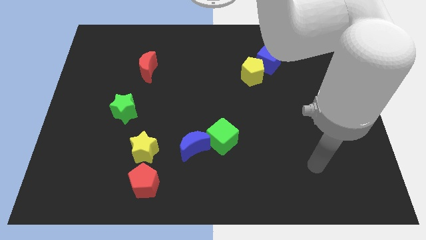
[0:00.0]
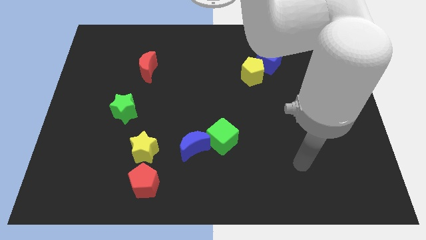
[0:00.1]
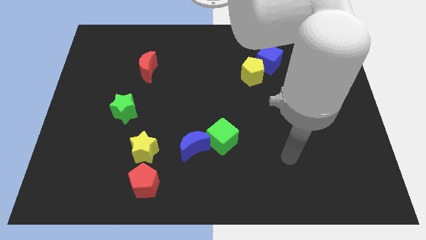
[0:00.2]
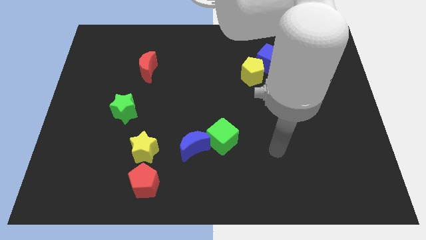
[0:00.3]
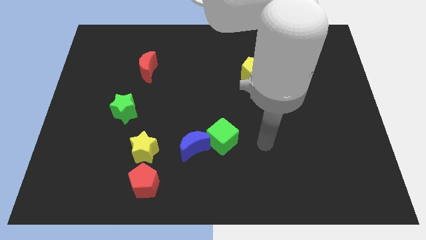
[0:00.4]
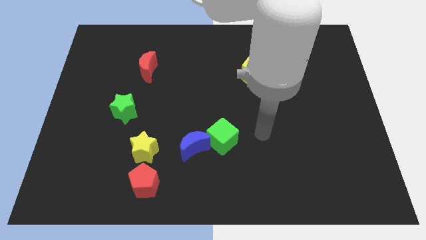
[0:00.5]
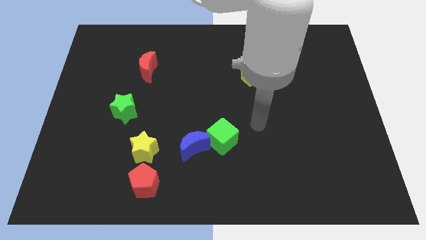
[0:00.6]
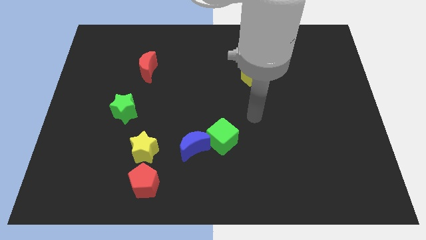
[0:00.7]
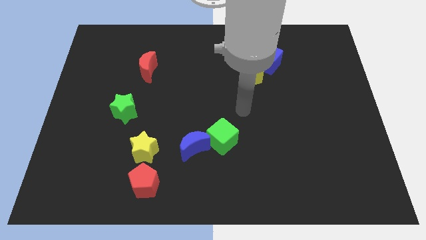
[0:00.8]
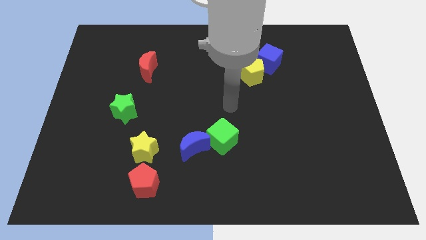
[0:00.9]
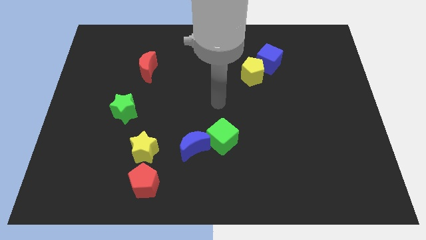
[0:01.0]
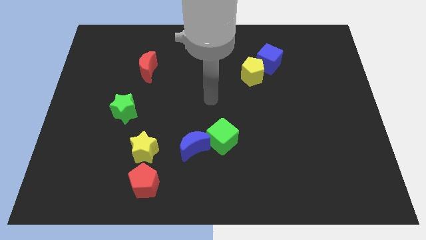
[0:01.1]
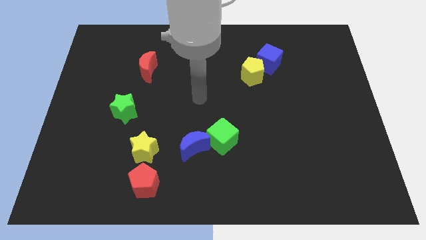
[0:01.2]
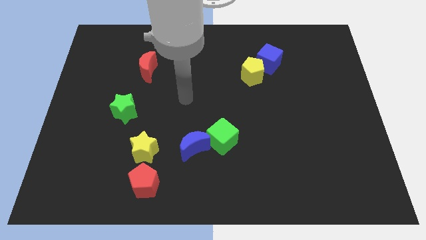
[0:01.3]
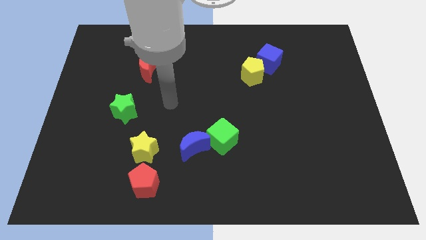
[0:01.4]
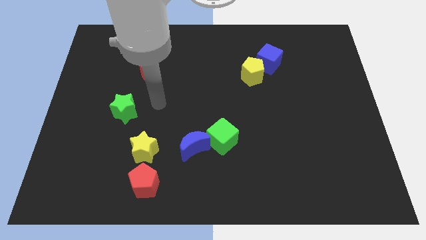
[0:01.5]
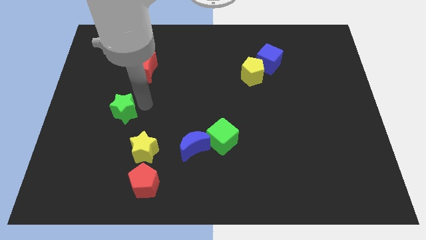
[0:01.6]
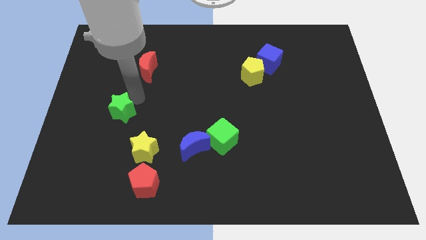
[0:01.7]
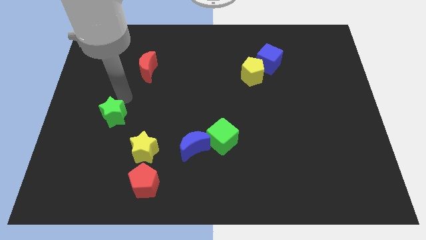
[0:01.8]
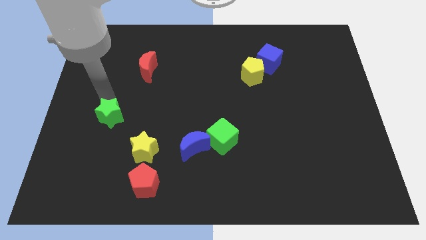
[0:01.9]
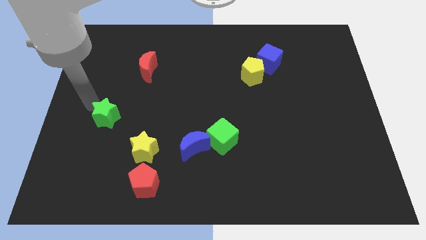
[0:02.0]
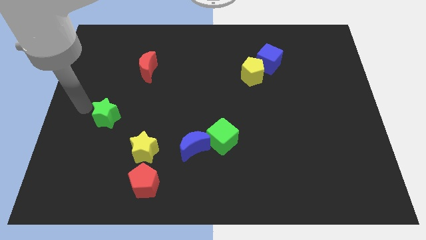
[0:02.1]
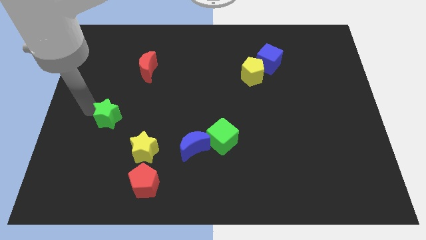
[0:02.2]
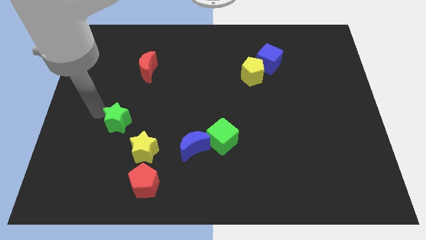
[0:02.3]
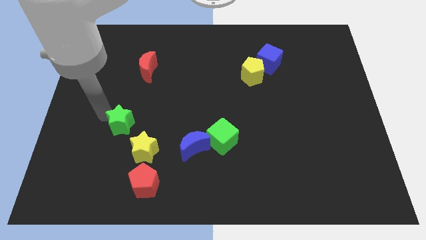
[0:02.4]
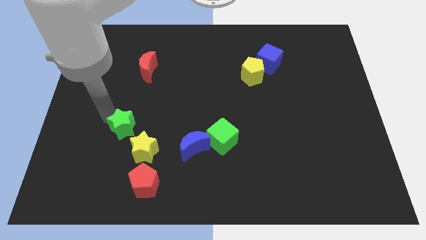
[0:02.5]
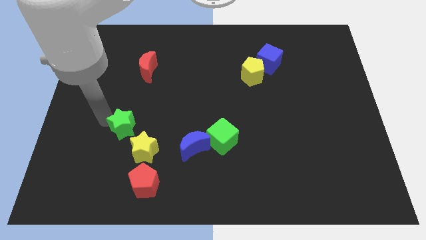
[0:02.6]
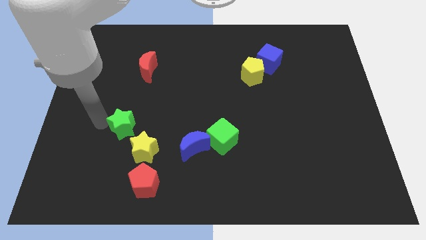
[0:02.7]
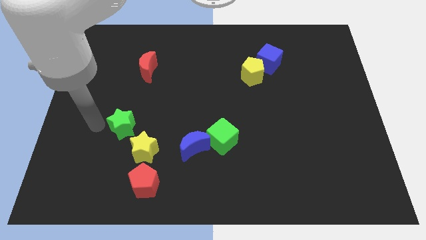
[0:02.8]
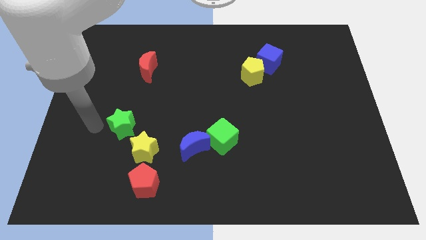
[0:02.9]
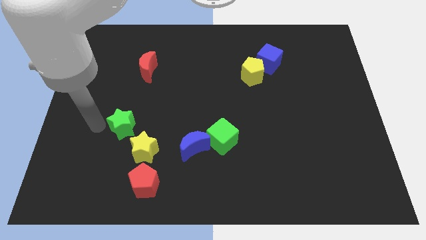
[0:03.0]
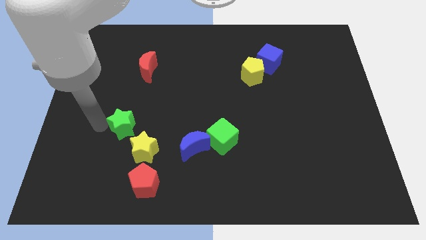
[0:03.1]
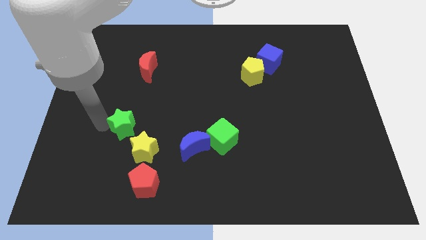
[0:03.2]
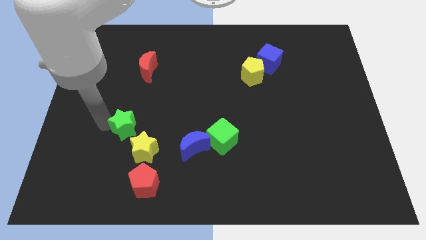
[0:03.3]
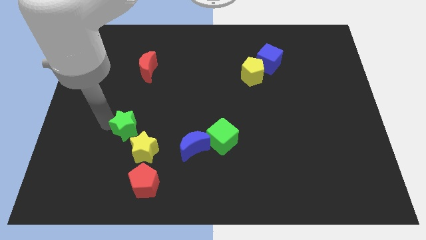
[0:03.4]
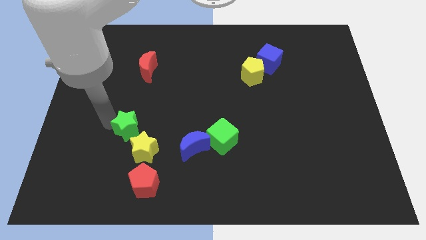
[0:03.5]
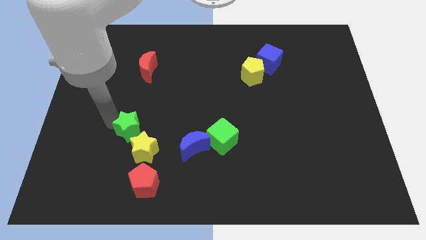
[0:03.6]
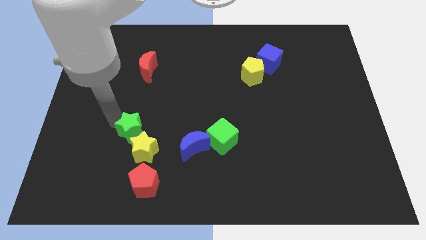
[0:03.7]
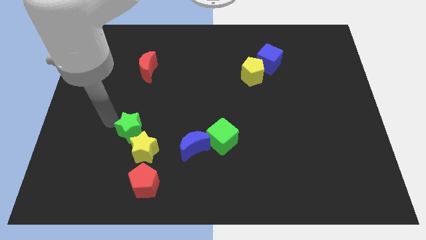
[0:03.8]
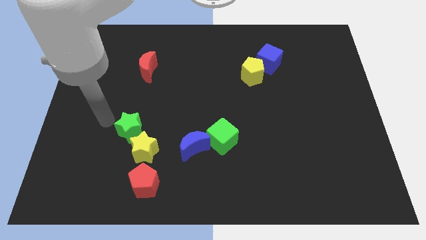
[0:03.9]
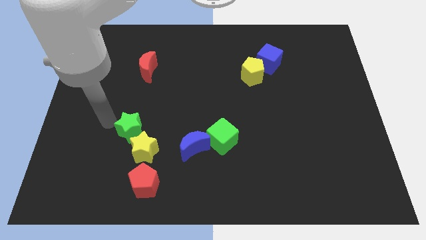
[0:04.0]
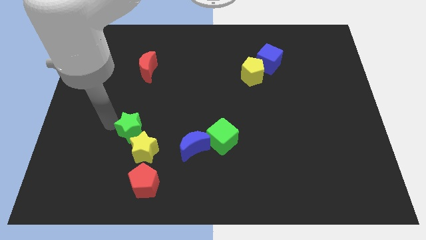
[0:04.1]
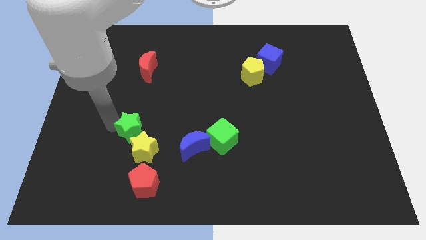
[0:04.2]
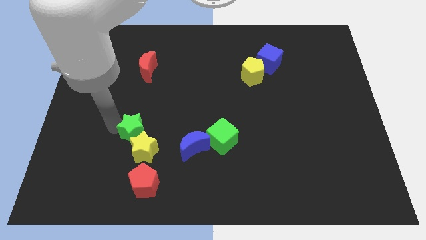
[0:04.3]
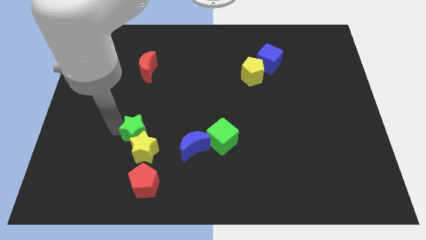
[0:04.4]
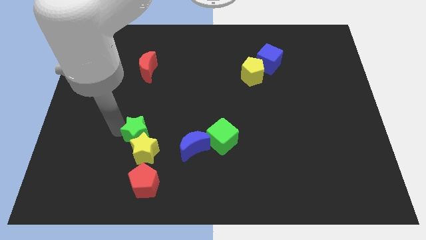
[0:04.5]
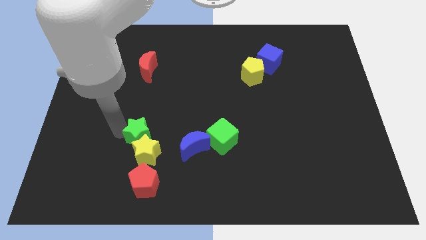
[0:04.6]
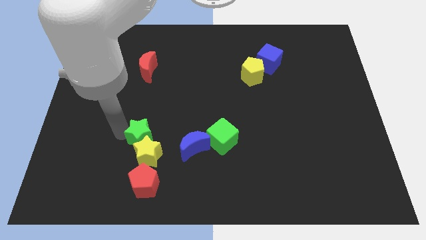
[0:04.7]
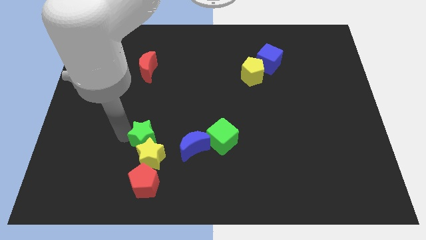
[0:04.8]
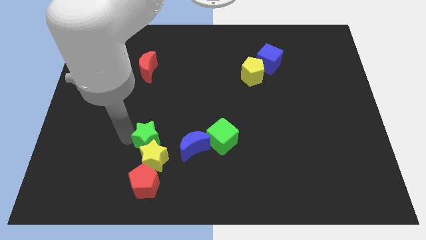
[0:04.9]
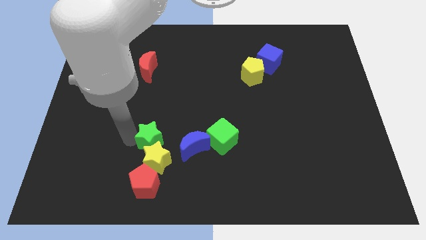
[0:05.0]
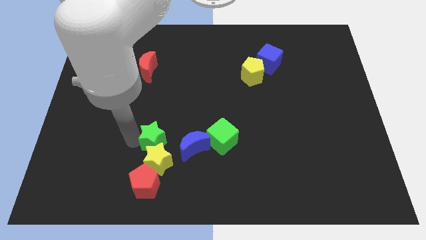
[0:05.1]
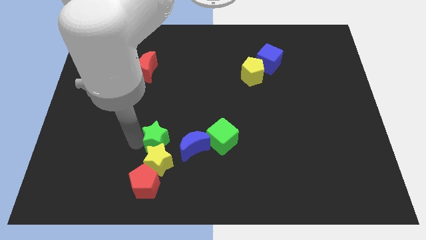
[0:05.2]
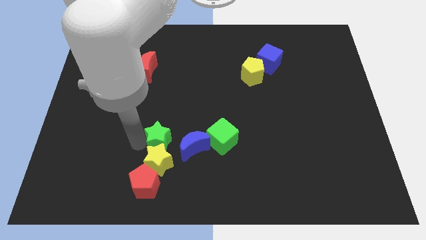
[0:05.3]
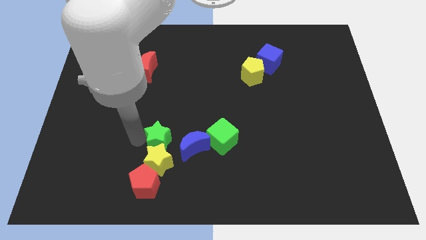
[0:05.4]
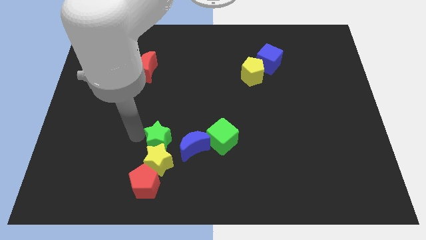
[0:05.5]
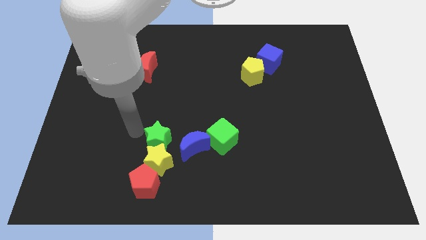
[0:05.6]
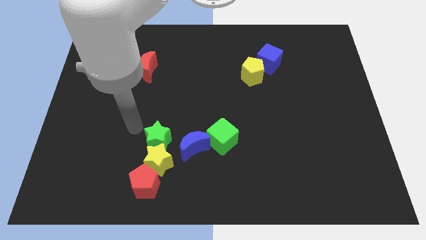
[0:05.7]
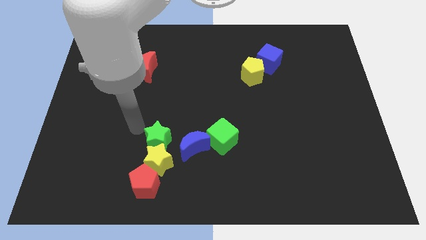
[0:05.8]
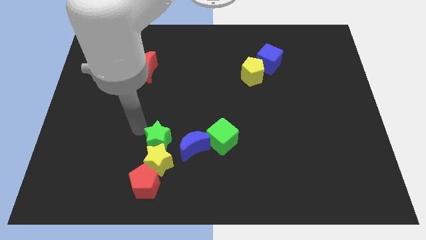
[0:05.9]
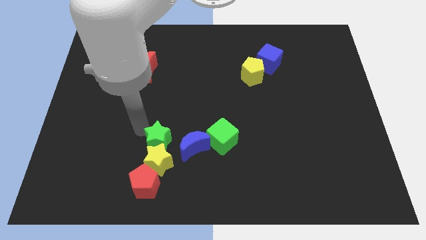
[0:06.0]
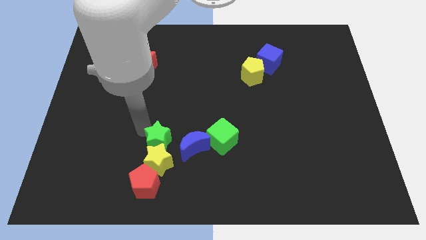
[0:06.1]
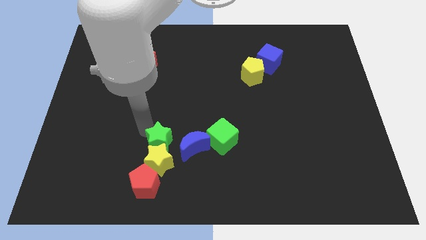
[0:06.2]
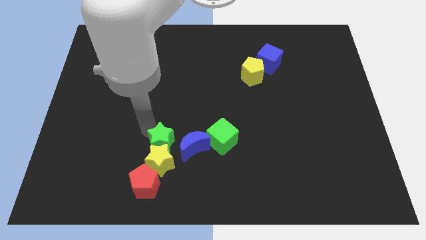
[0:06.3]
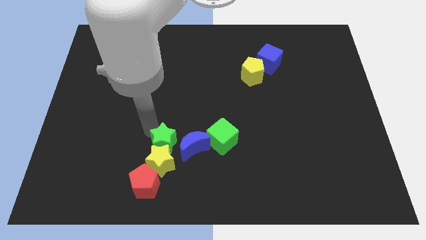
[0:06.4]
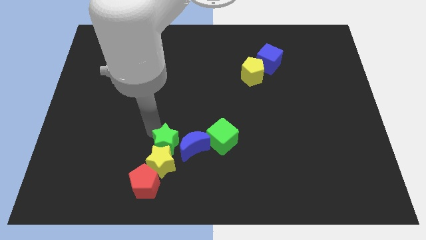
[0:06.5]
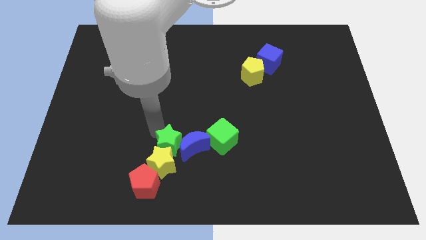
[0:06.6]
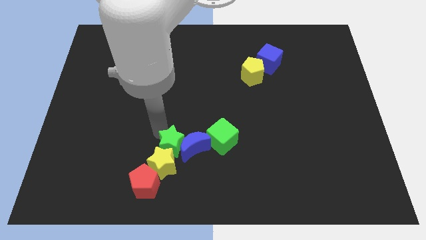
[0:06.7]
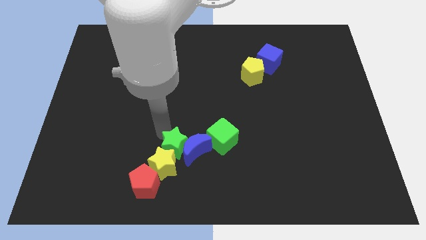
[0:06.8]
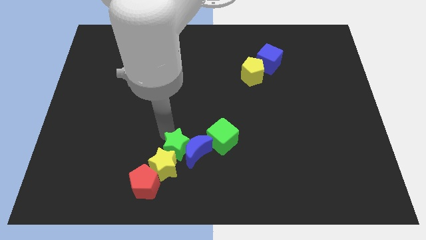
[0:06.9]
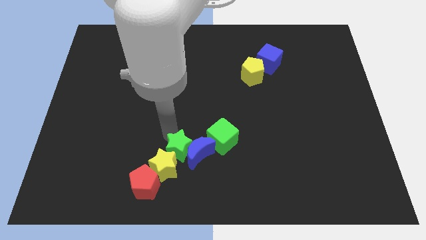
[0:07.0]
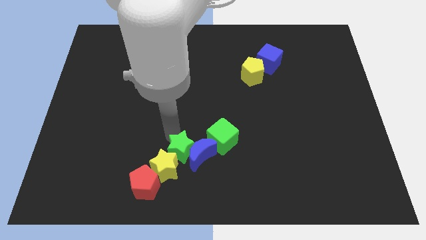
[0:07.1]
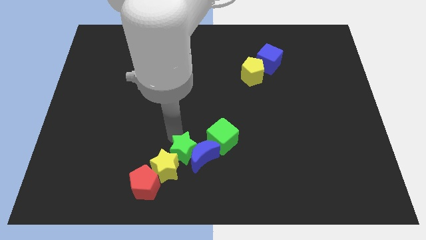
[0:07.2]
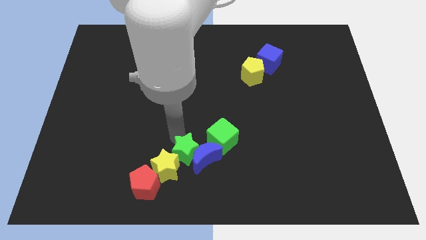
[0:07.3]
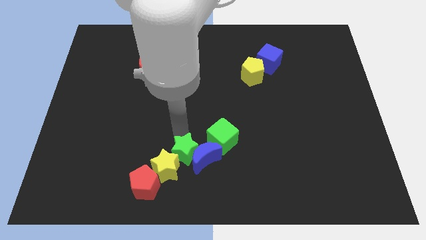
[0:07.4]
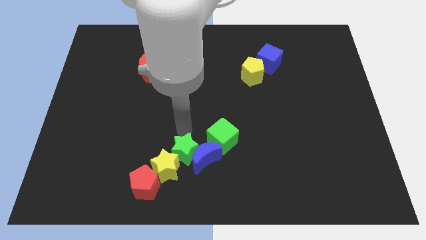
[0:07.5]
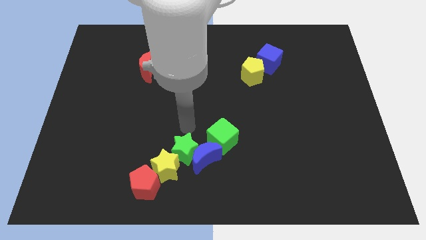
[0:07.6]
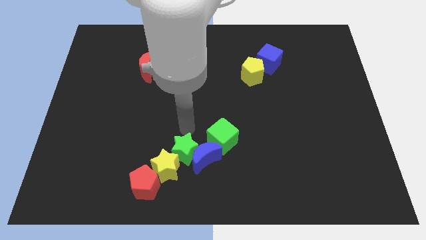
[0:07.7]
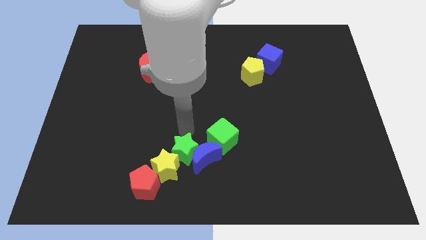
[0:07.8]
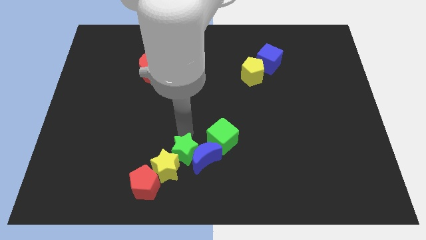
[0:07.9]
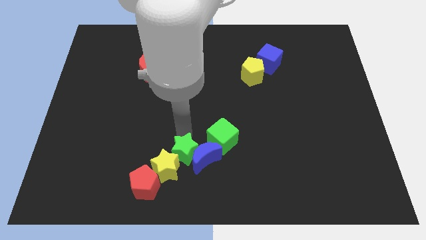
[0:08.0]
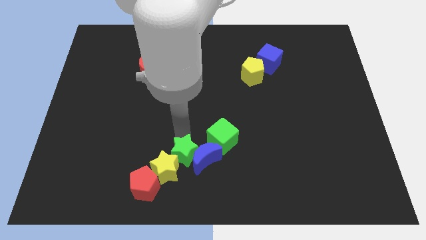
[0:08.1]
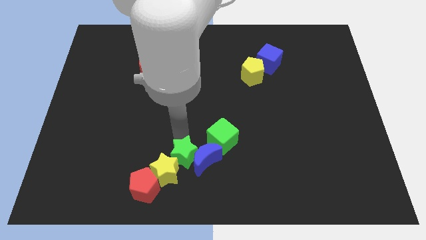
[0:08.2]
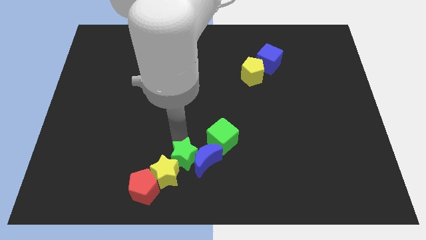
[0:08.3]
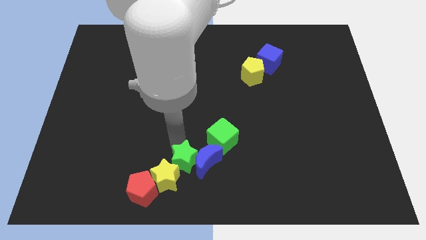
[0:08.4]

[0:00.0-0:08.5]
push the green star to the bottom side
